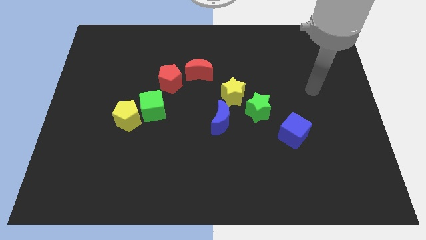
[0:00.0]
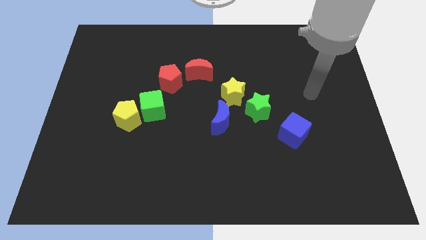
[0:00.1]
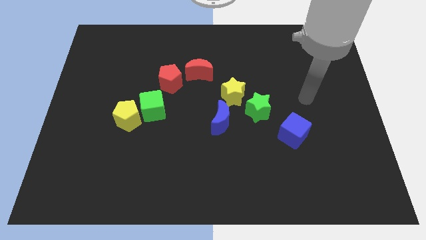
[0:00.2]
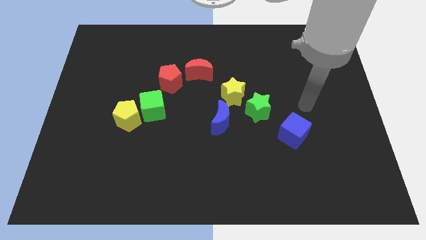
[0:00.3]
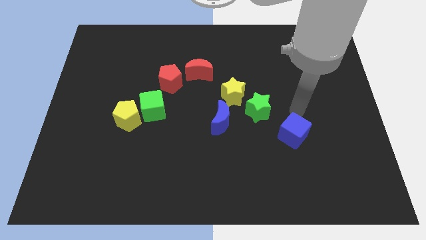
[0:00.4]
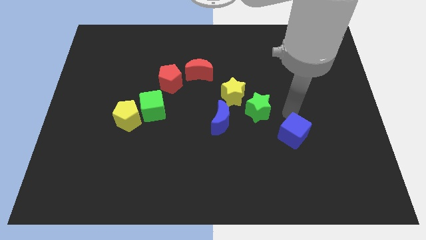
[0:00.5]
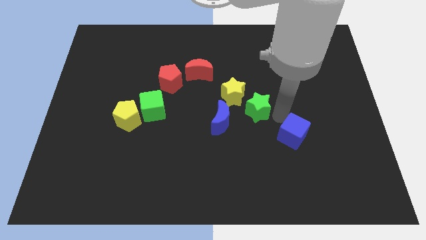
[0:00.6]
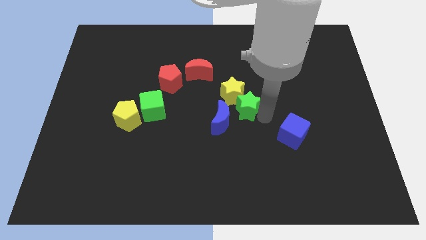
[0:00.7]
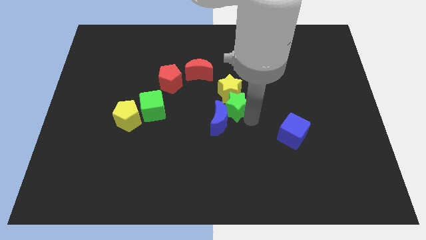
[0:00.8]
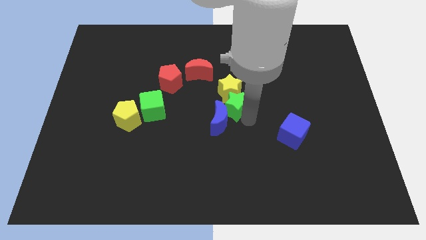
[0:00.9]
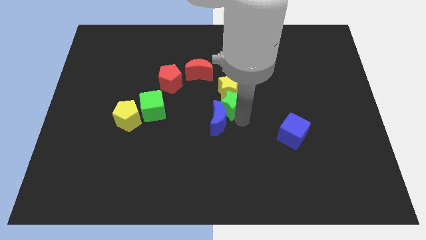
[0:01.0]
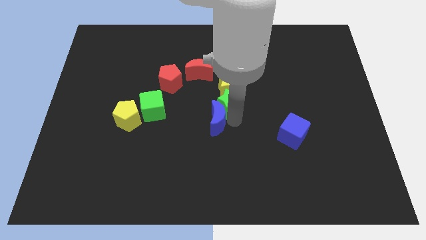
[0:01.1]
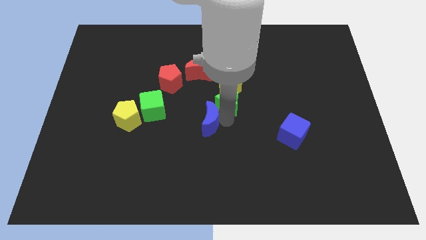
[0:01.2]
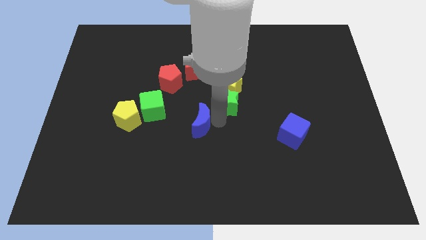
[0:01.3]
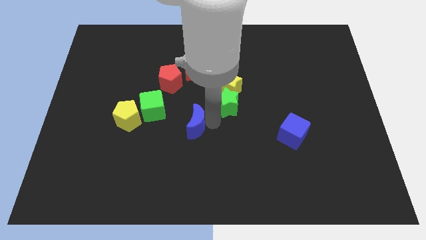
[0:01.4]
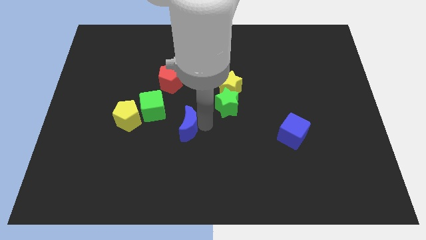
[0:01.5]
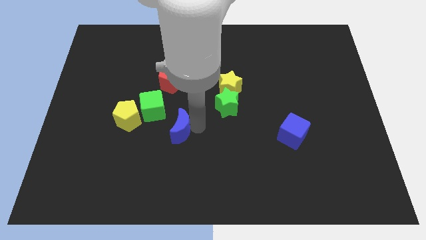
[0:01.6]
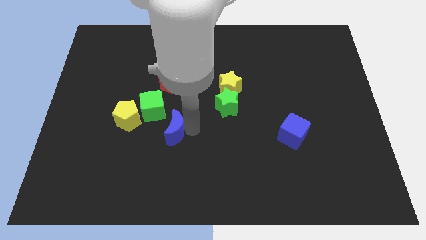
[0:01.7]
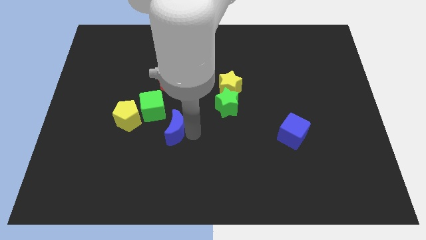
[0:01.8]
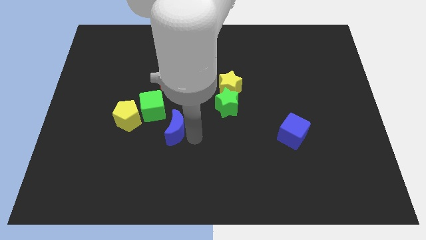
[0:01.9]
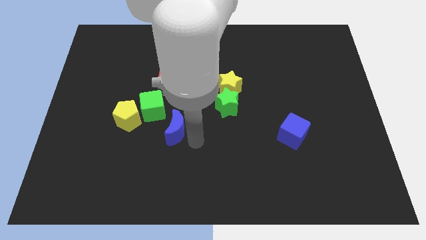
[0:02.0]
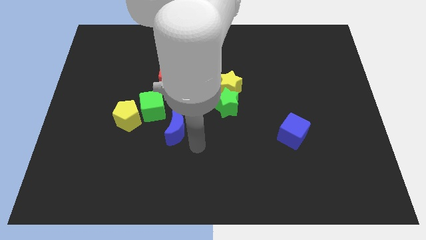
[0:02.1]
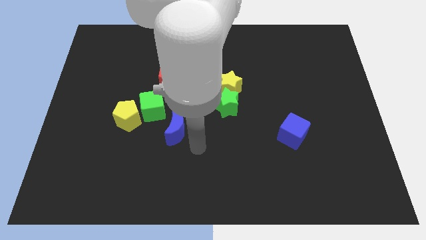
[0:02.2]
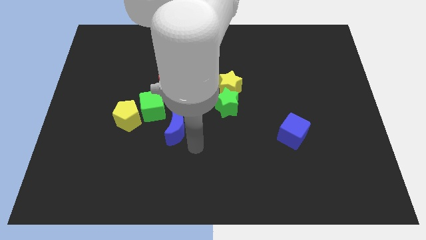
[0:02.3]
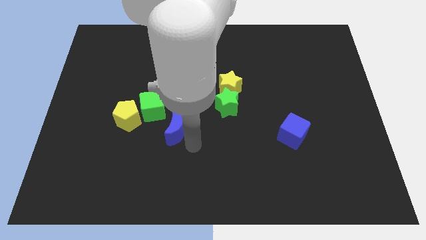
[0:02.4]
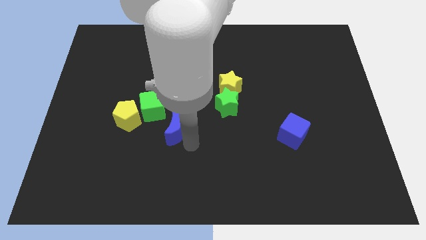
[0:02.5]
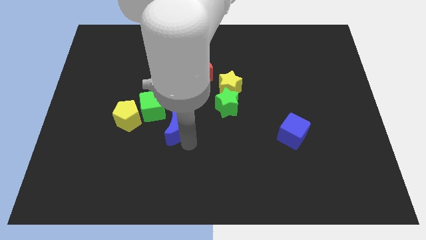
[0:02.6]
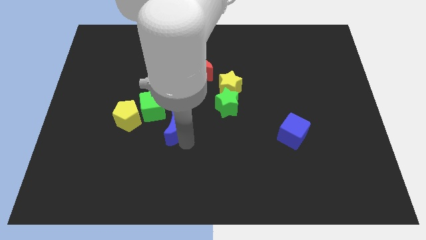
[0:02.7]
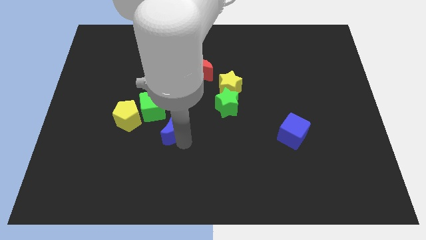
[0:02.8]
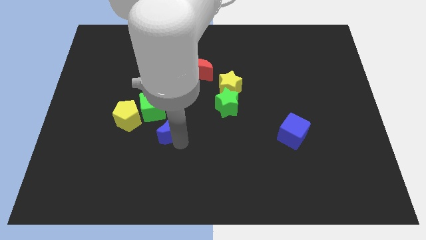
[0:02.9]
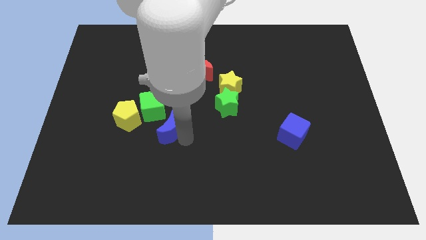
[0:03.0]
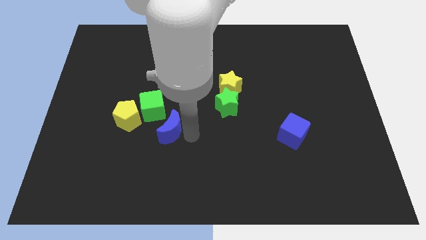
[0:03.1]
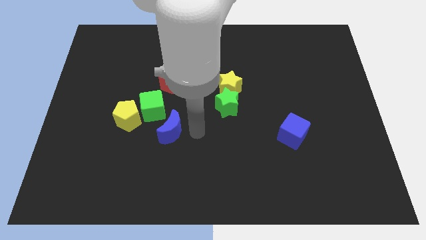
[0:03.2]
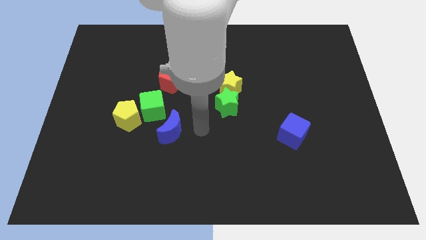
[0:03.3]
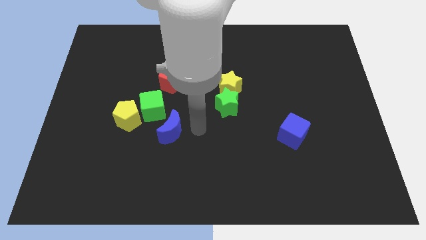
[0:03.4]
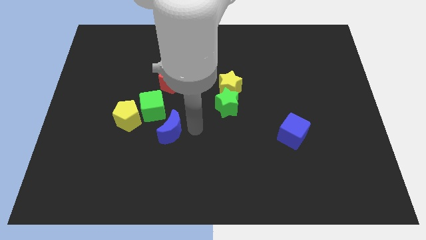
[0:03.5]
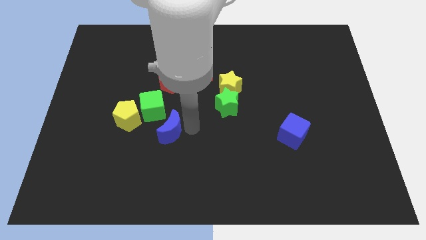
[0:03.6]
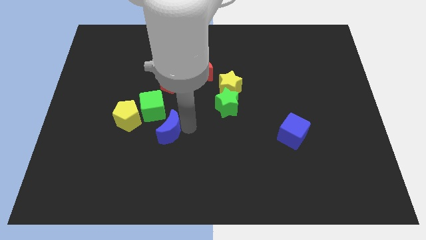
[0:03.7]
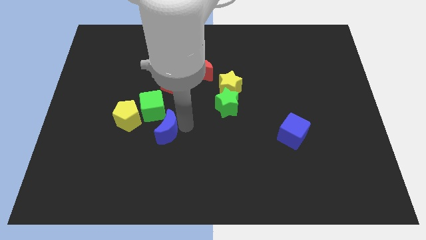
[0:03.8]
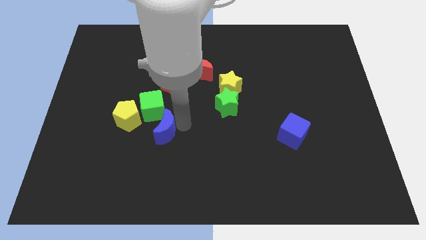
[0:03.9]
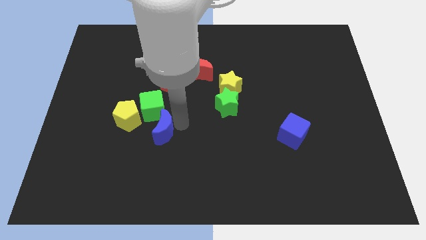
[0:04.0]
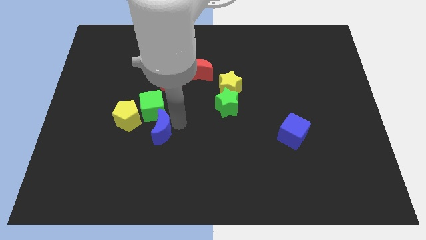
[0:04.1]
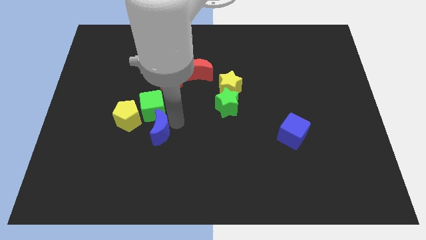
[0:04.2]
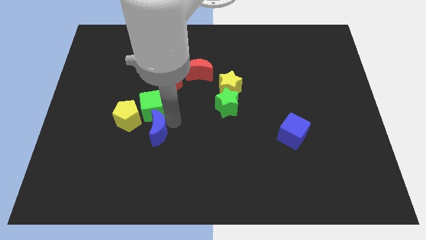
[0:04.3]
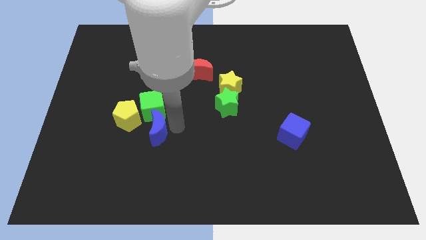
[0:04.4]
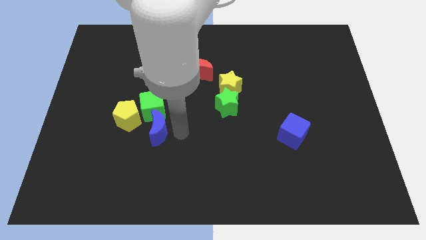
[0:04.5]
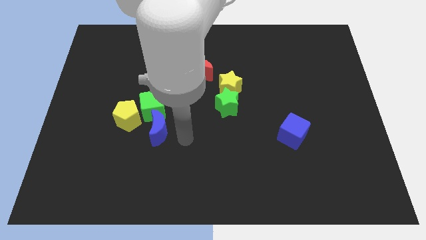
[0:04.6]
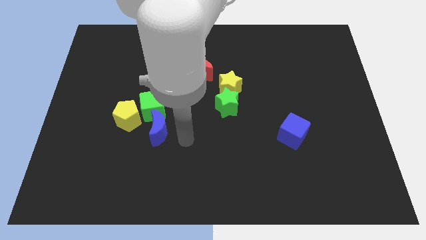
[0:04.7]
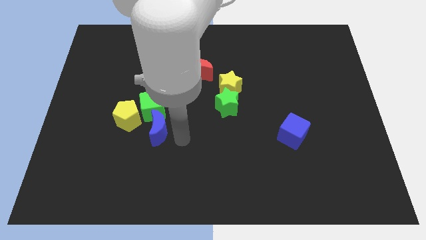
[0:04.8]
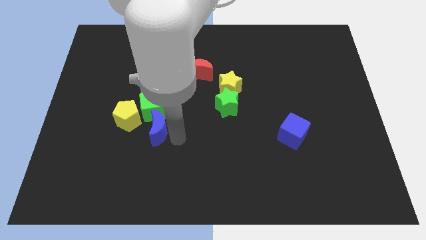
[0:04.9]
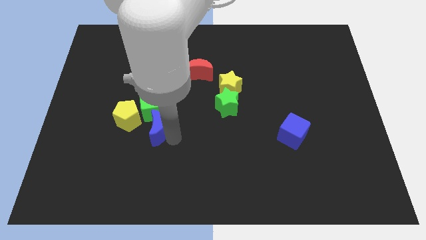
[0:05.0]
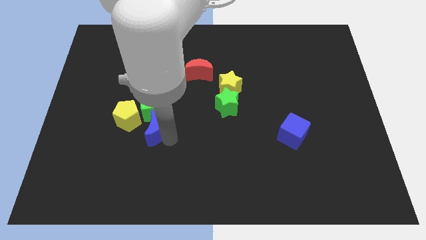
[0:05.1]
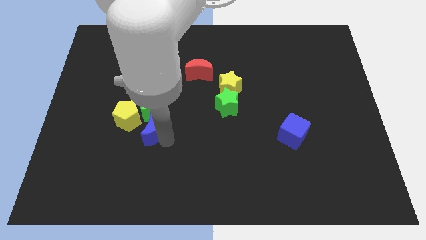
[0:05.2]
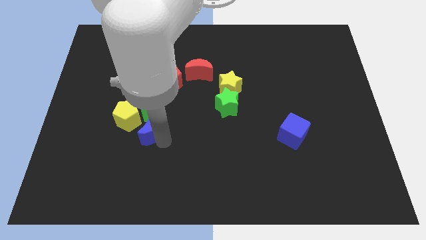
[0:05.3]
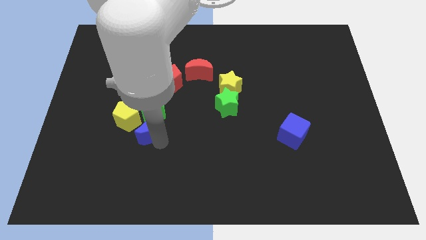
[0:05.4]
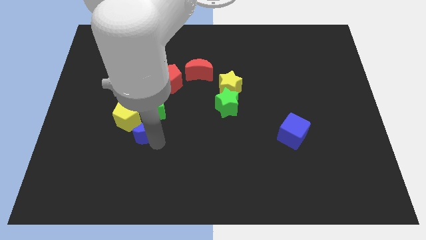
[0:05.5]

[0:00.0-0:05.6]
put the blue moon close to the yellow pentagon

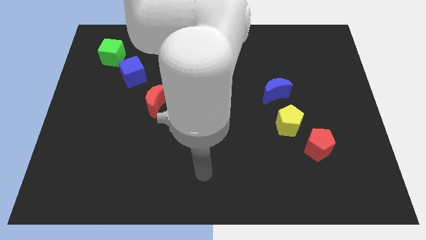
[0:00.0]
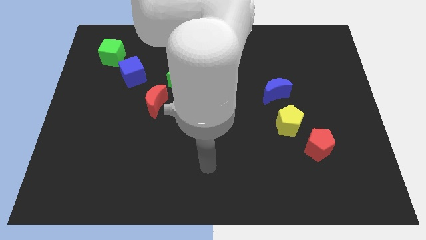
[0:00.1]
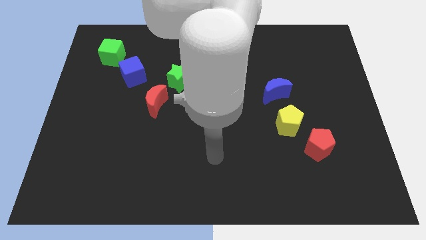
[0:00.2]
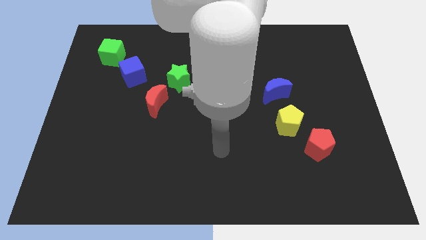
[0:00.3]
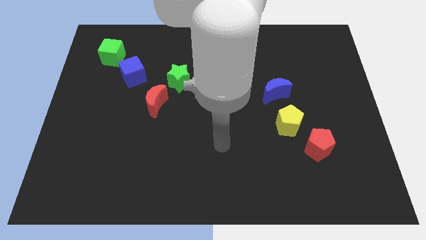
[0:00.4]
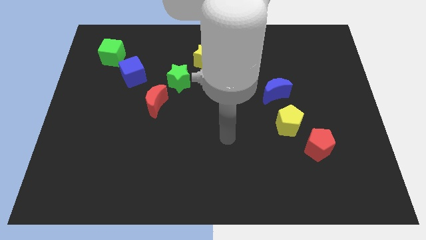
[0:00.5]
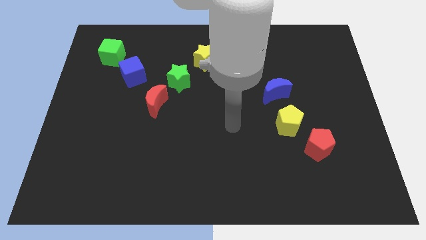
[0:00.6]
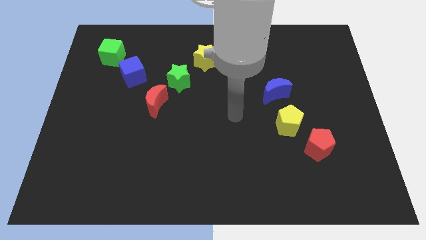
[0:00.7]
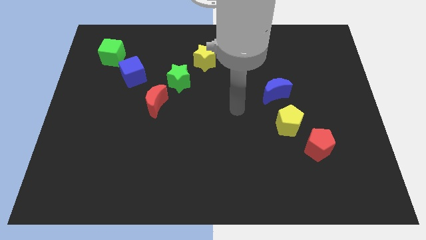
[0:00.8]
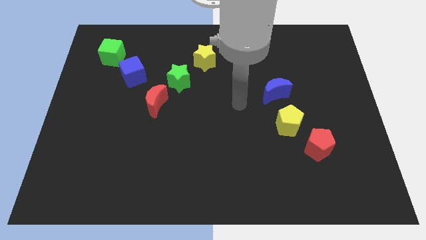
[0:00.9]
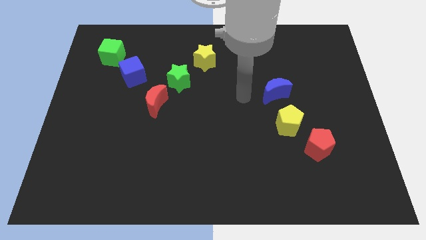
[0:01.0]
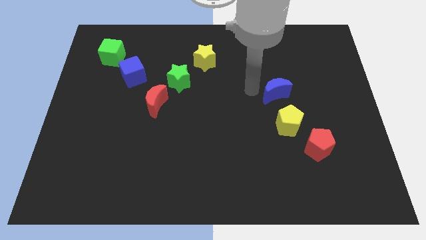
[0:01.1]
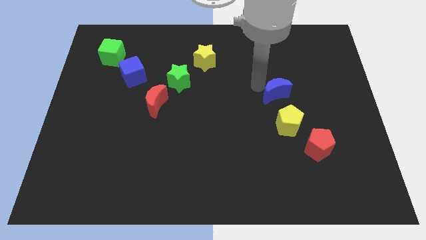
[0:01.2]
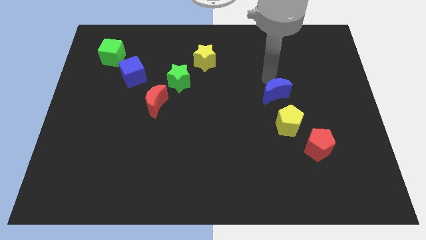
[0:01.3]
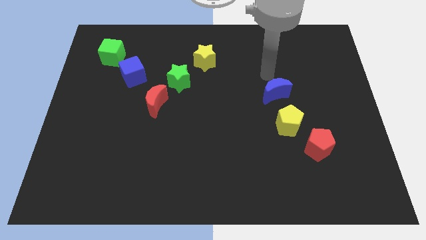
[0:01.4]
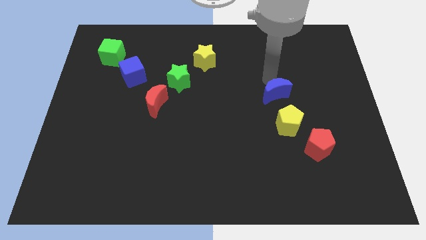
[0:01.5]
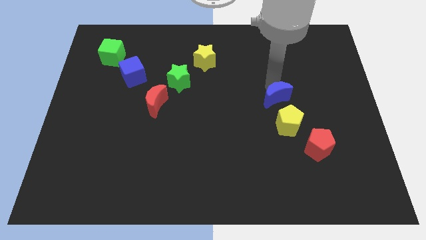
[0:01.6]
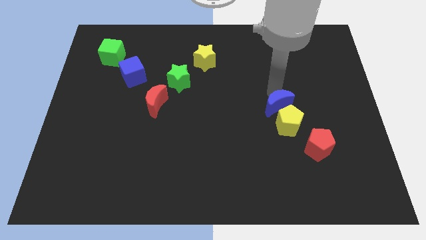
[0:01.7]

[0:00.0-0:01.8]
put the blue moon to the yellow pentagon
